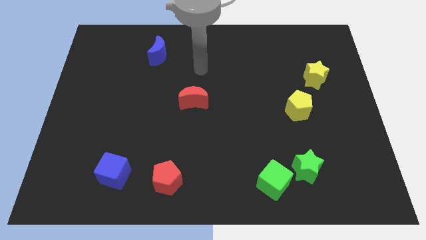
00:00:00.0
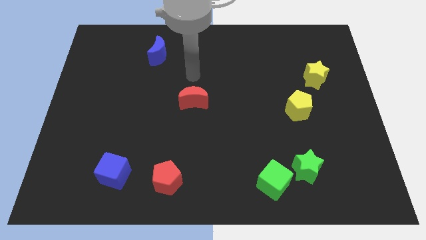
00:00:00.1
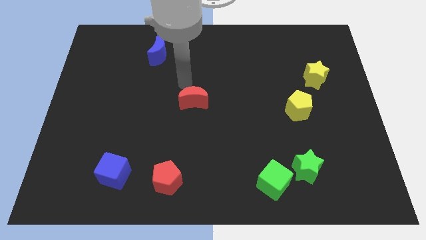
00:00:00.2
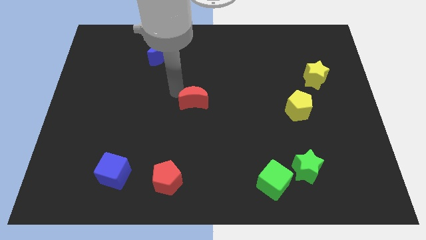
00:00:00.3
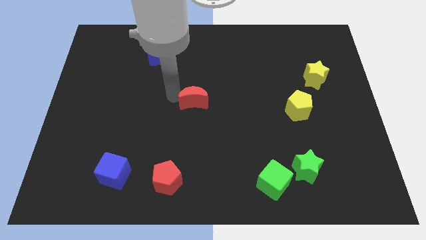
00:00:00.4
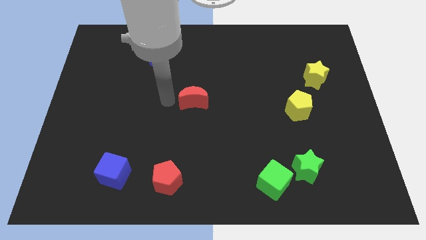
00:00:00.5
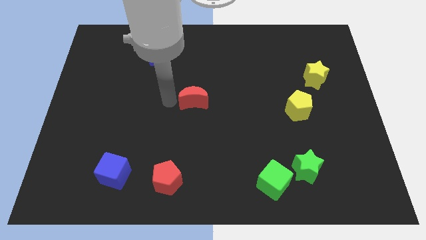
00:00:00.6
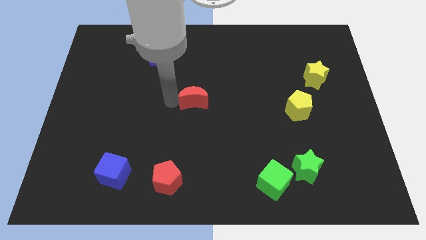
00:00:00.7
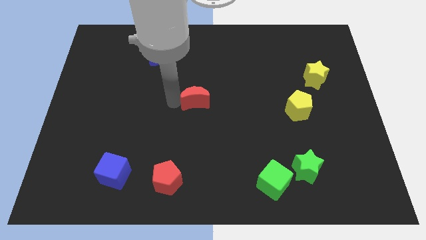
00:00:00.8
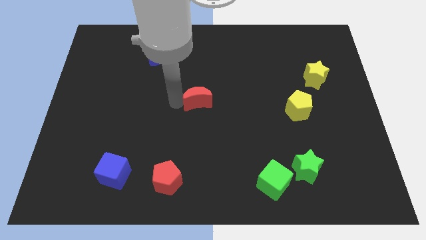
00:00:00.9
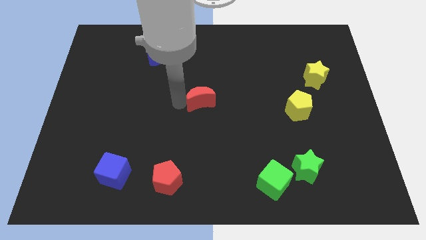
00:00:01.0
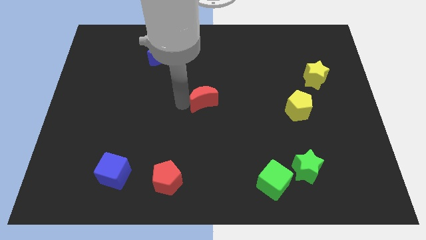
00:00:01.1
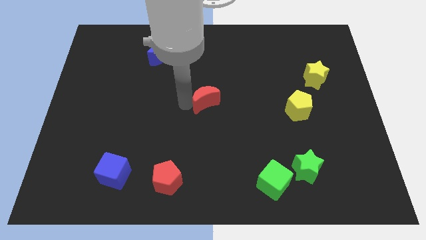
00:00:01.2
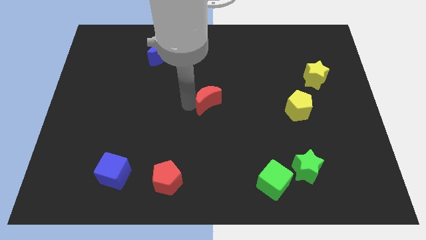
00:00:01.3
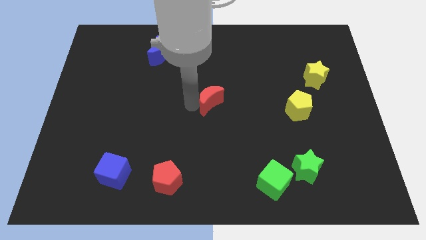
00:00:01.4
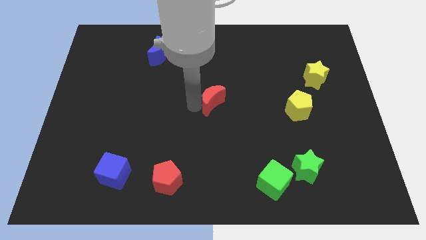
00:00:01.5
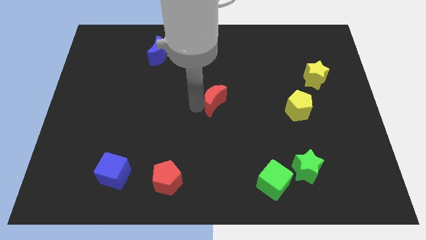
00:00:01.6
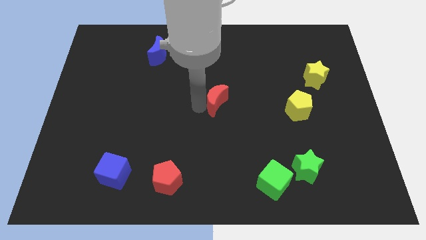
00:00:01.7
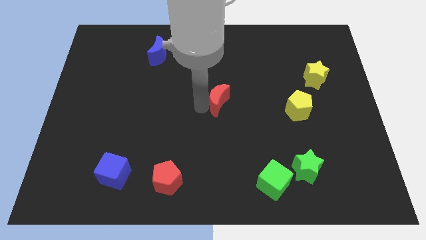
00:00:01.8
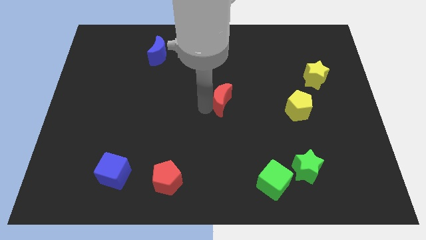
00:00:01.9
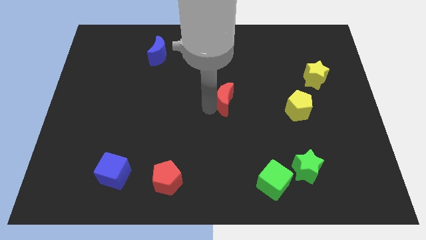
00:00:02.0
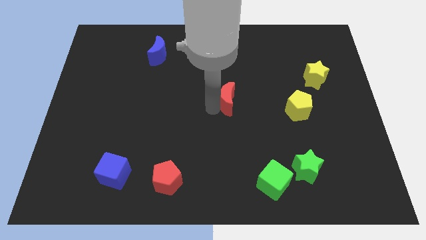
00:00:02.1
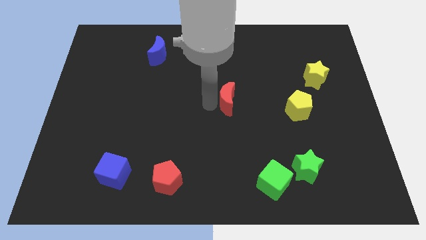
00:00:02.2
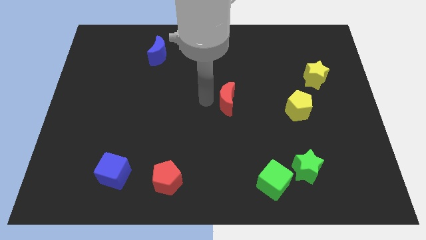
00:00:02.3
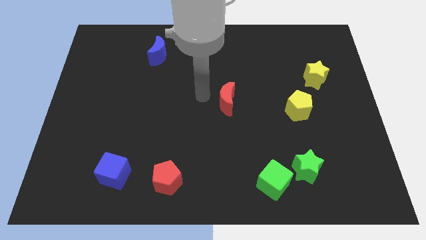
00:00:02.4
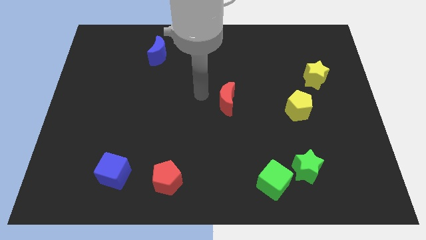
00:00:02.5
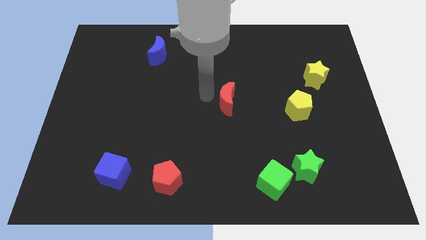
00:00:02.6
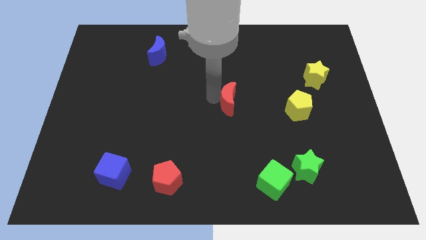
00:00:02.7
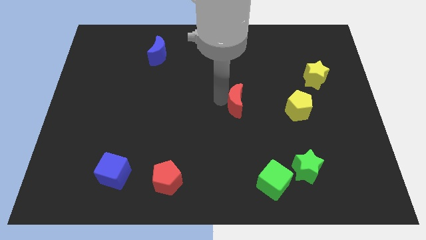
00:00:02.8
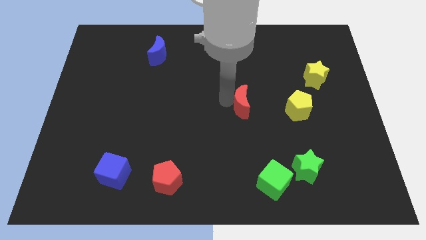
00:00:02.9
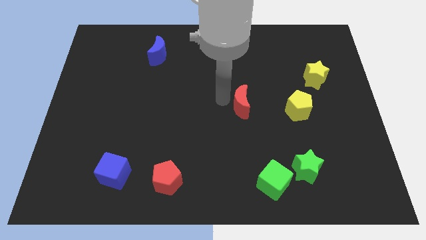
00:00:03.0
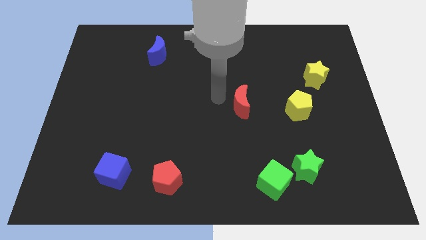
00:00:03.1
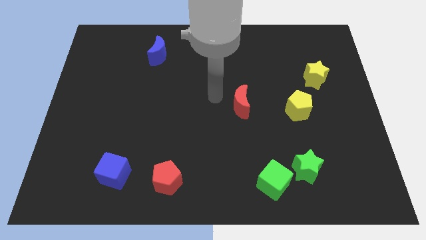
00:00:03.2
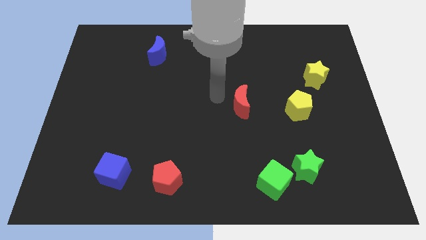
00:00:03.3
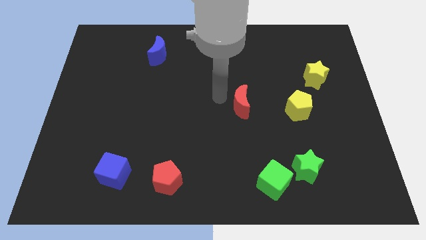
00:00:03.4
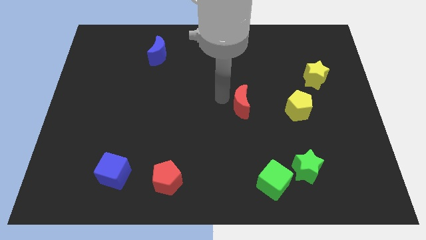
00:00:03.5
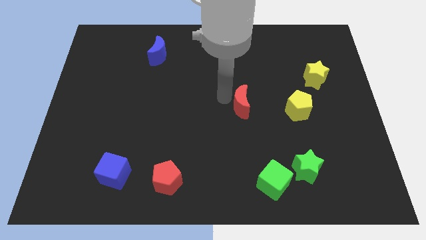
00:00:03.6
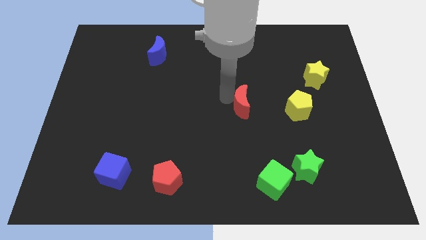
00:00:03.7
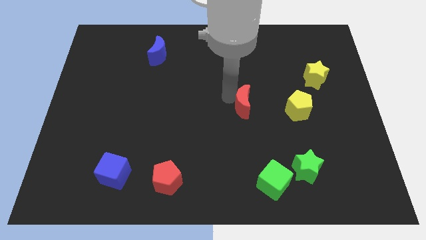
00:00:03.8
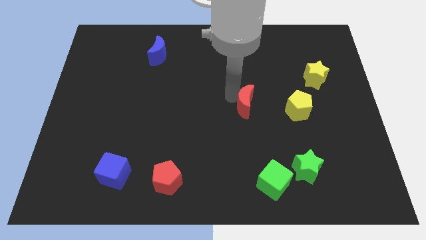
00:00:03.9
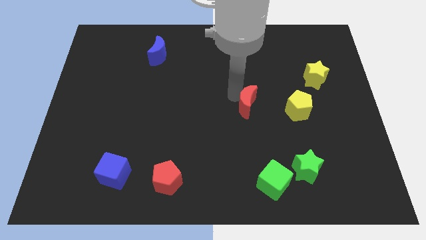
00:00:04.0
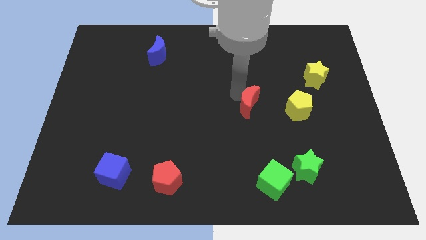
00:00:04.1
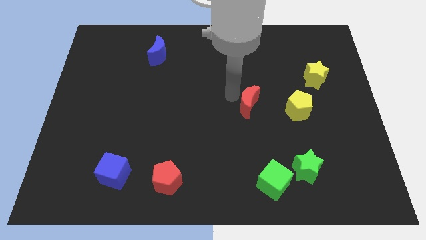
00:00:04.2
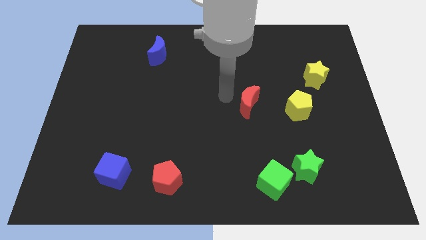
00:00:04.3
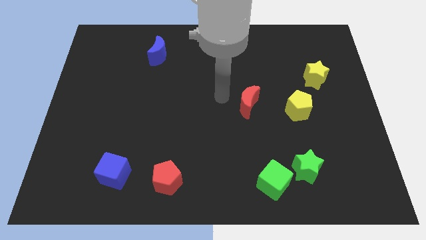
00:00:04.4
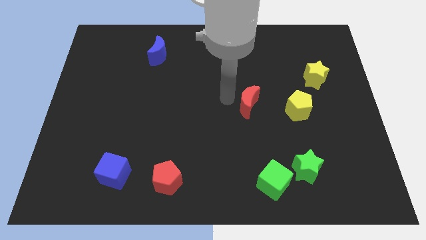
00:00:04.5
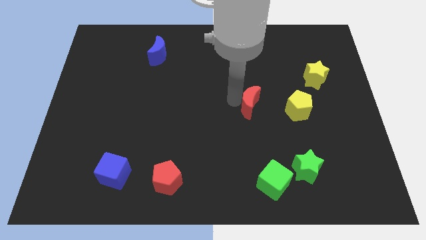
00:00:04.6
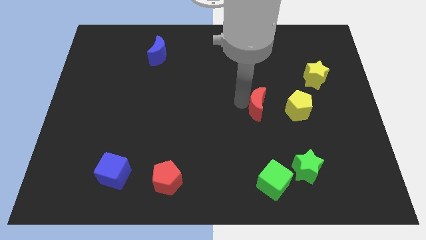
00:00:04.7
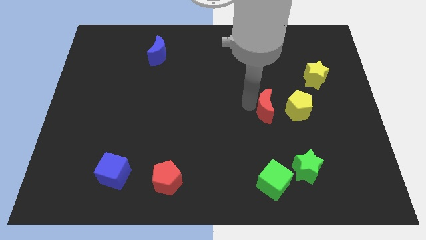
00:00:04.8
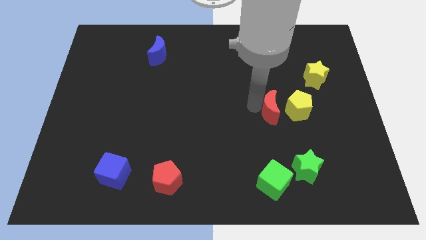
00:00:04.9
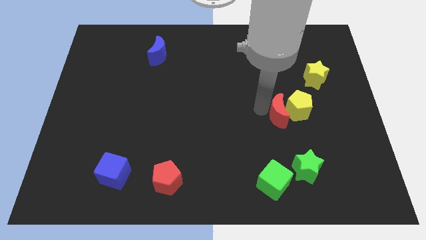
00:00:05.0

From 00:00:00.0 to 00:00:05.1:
slide the red moon next to the yellow pentagon

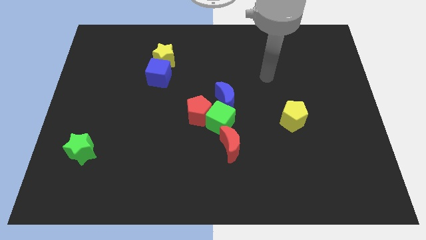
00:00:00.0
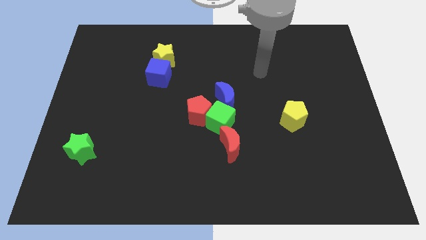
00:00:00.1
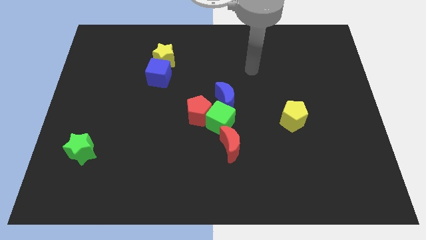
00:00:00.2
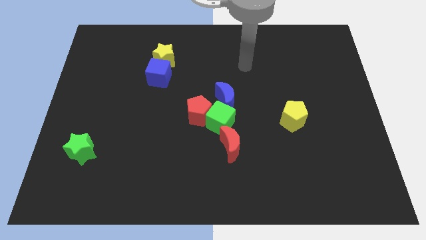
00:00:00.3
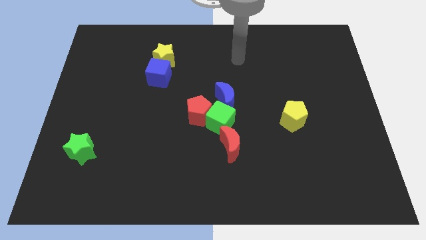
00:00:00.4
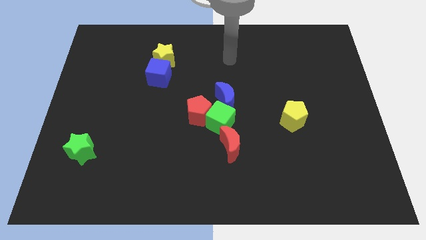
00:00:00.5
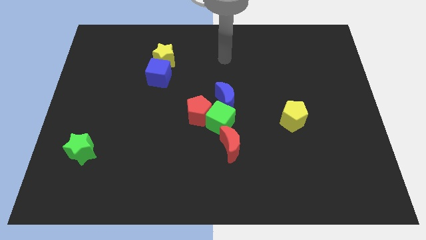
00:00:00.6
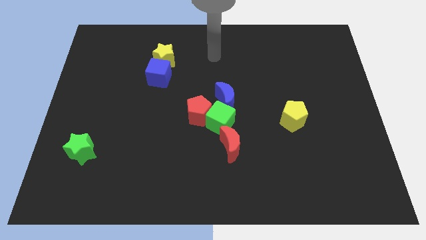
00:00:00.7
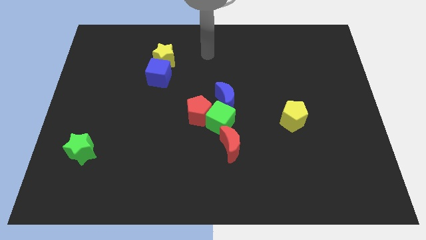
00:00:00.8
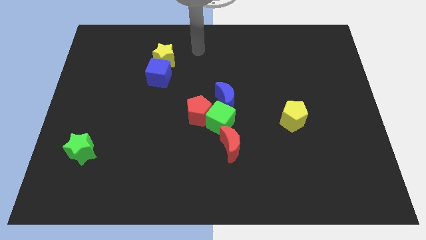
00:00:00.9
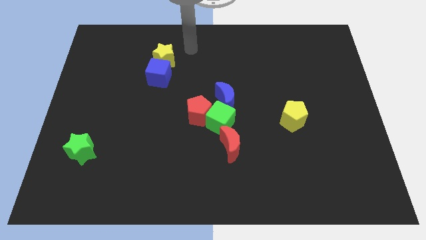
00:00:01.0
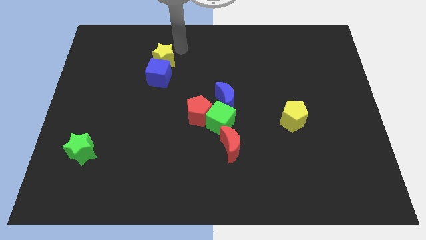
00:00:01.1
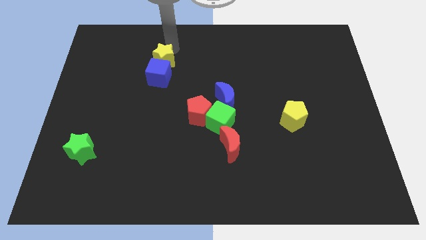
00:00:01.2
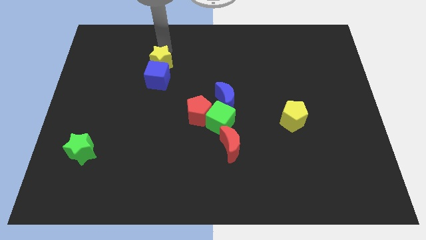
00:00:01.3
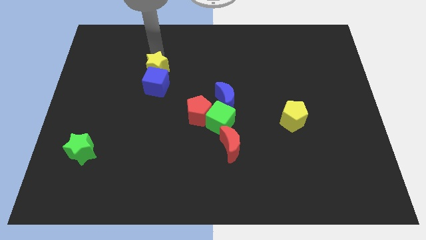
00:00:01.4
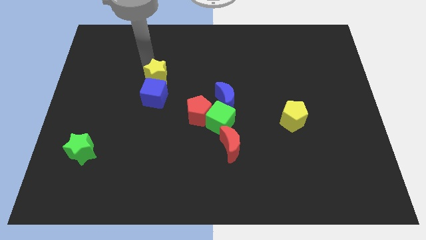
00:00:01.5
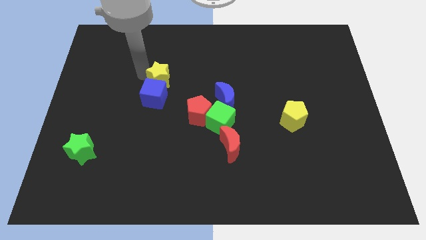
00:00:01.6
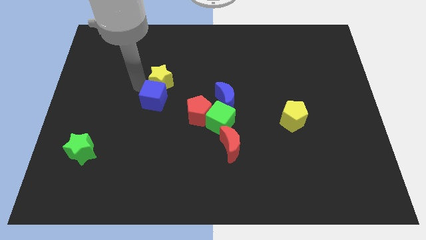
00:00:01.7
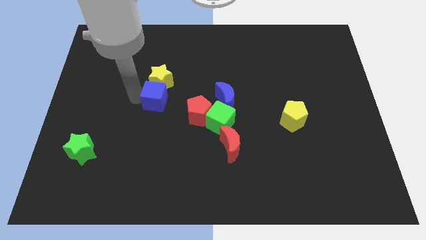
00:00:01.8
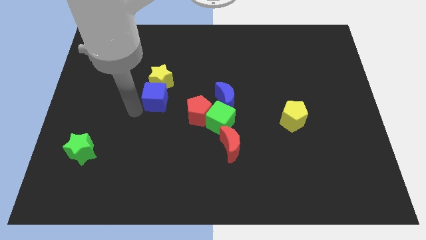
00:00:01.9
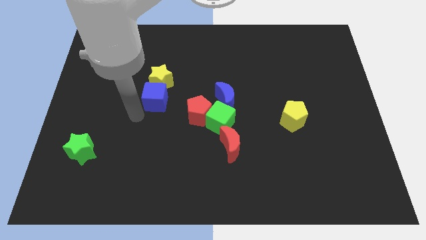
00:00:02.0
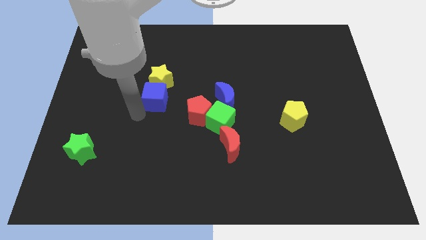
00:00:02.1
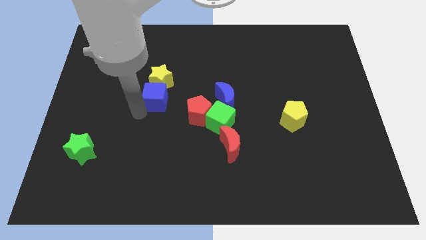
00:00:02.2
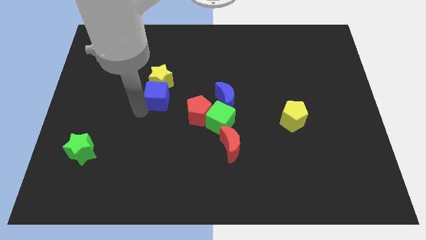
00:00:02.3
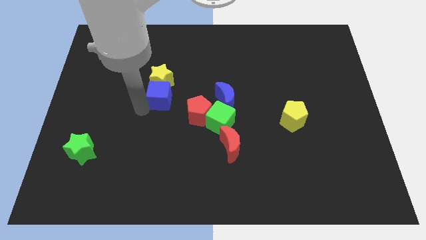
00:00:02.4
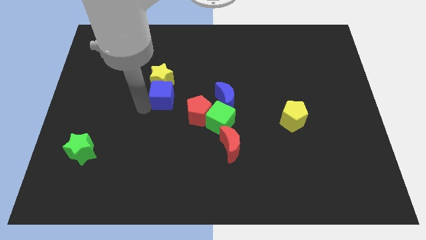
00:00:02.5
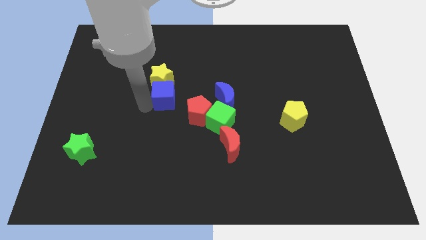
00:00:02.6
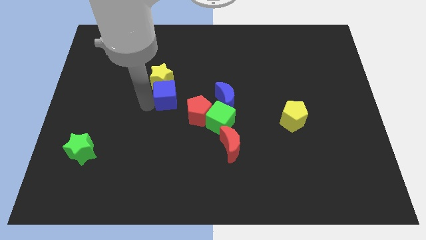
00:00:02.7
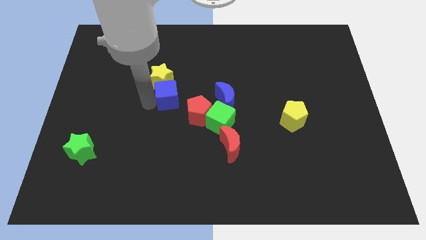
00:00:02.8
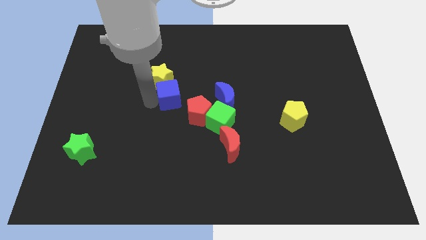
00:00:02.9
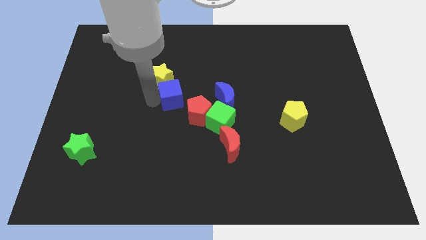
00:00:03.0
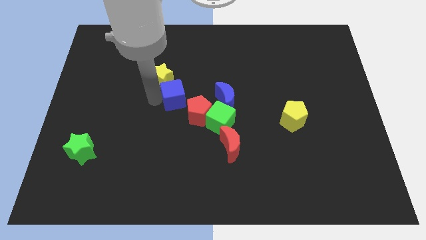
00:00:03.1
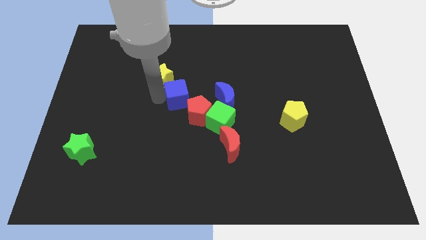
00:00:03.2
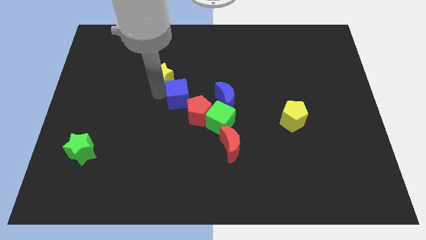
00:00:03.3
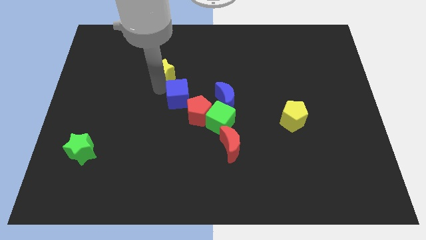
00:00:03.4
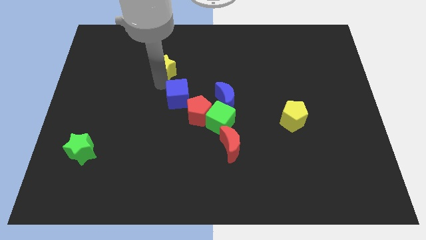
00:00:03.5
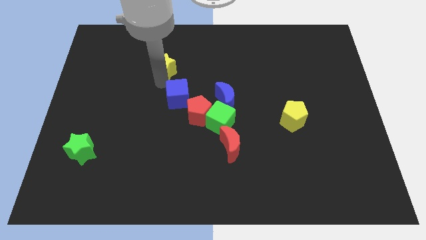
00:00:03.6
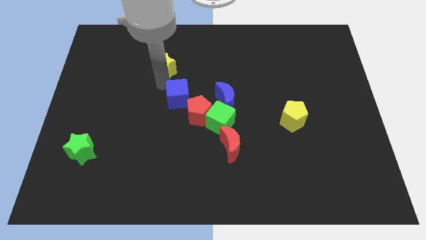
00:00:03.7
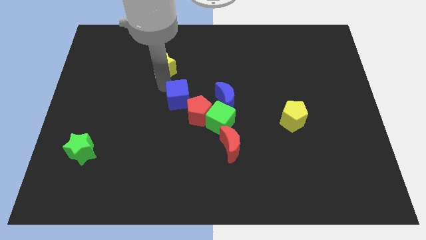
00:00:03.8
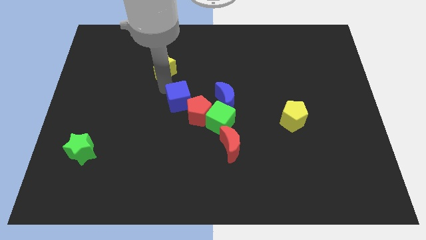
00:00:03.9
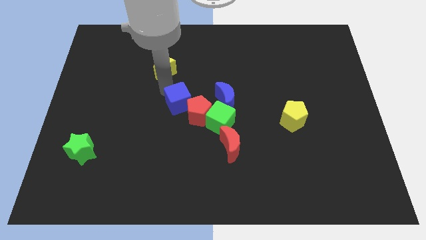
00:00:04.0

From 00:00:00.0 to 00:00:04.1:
push the blue cube next to the red pentagon
